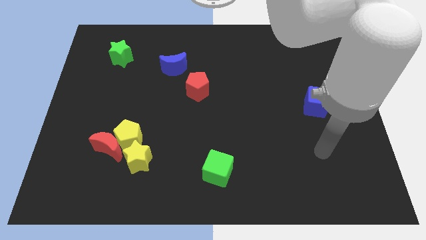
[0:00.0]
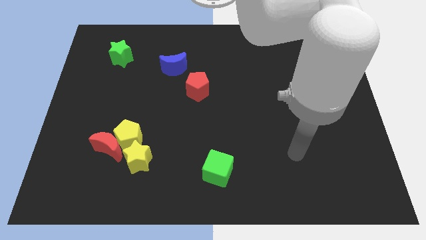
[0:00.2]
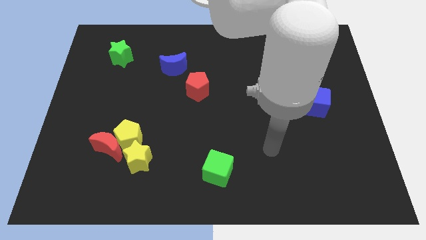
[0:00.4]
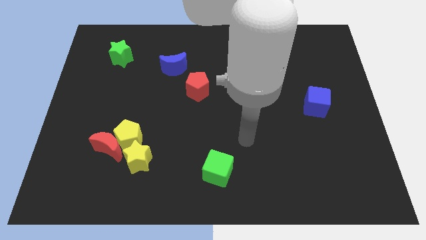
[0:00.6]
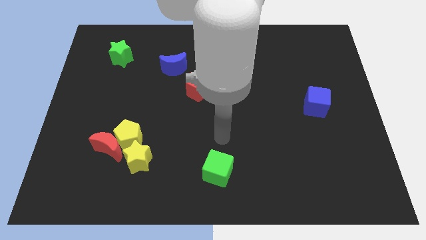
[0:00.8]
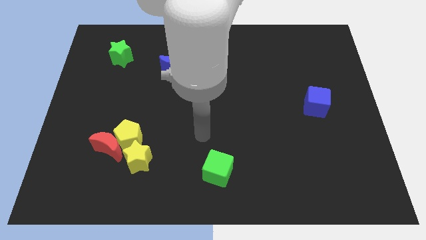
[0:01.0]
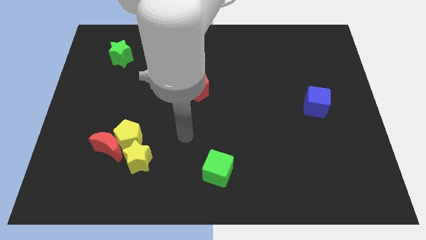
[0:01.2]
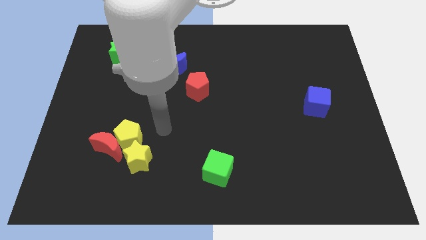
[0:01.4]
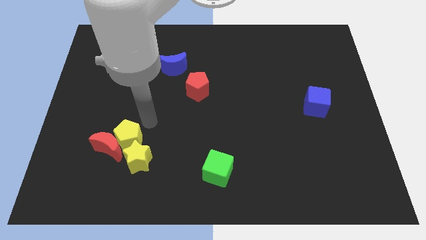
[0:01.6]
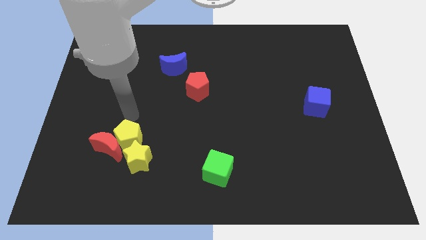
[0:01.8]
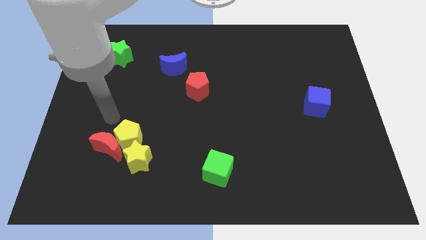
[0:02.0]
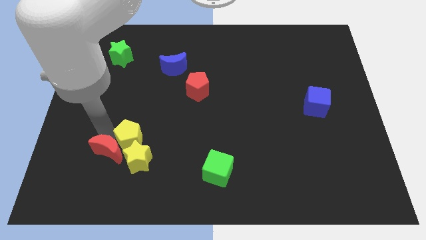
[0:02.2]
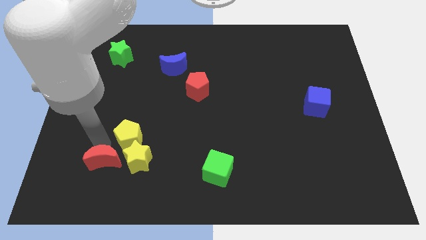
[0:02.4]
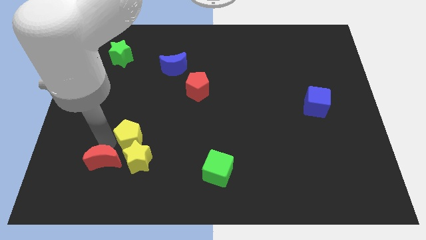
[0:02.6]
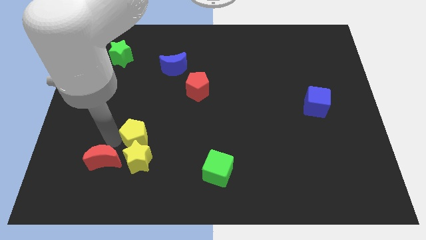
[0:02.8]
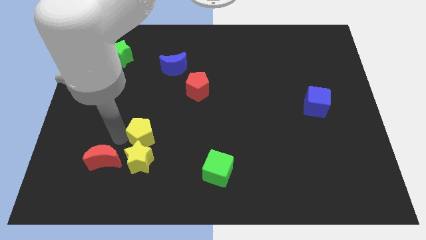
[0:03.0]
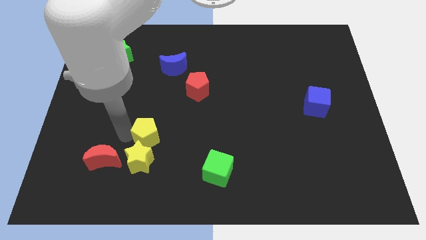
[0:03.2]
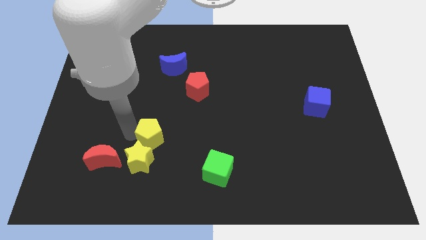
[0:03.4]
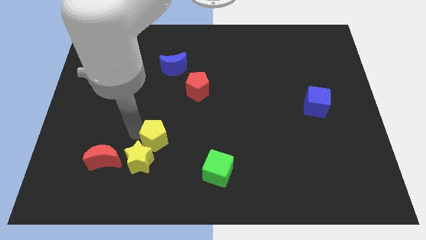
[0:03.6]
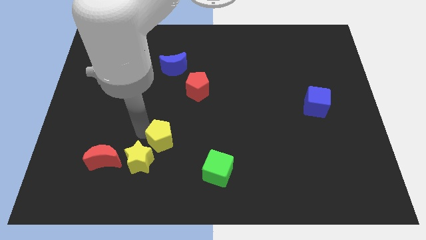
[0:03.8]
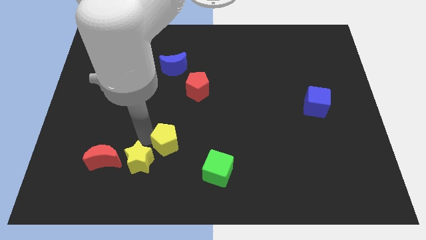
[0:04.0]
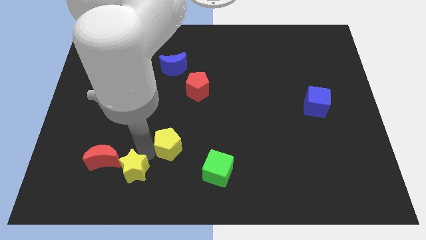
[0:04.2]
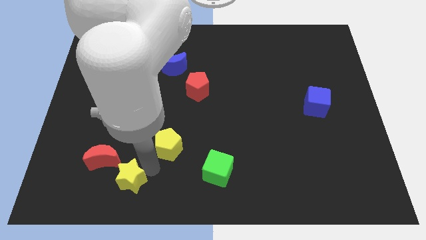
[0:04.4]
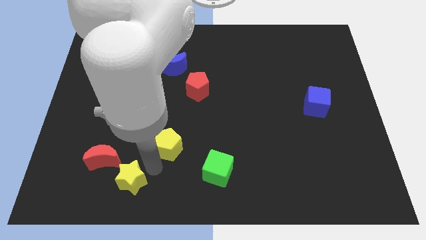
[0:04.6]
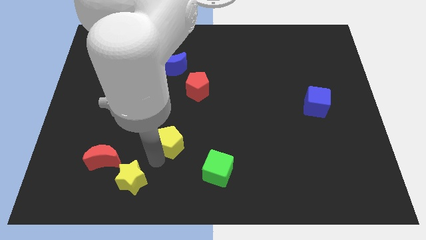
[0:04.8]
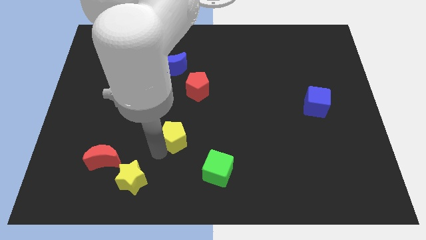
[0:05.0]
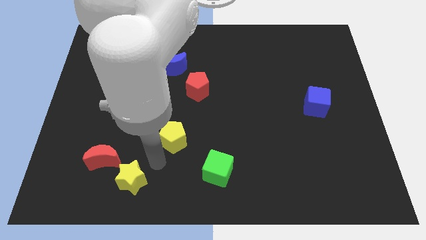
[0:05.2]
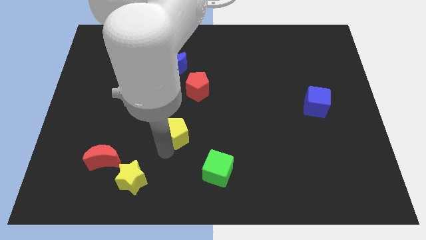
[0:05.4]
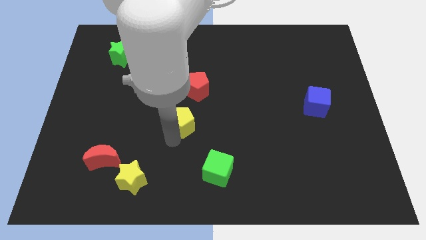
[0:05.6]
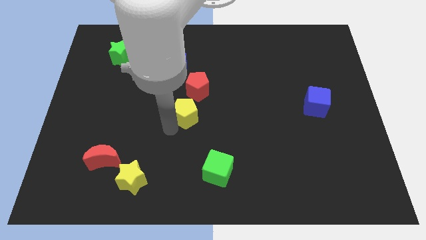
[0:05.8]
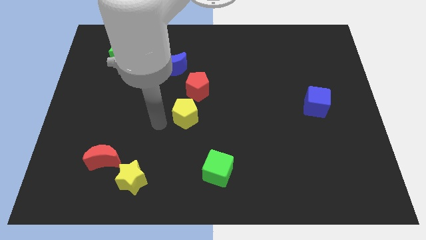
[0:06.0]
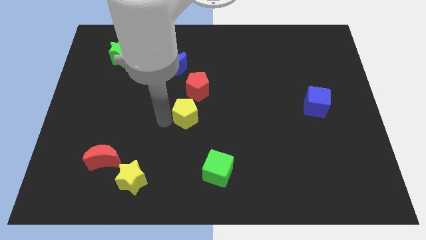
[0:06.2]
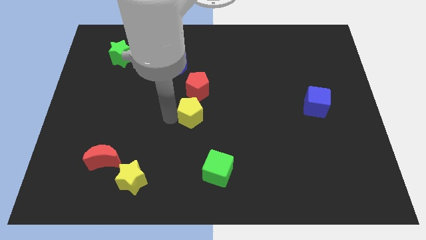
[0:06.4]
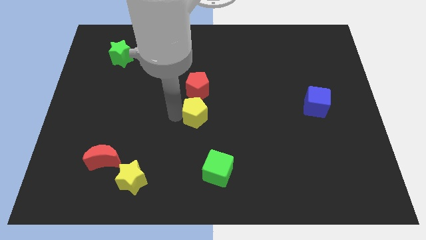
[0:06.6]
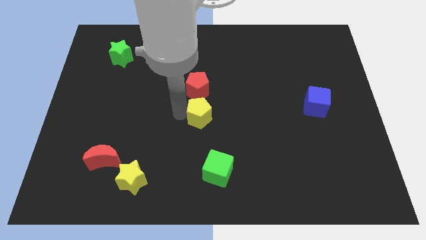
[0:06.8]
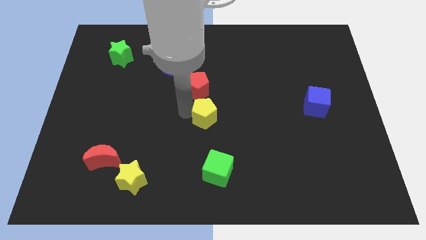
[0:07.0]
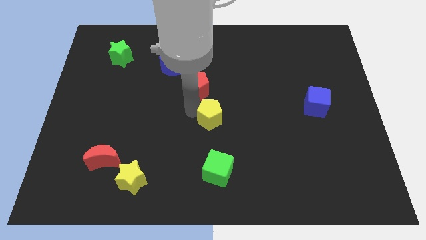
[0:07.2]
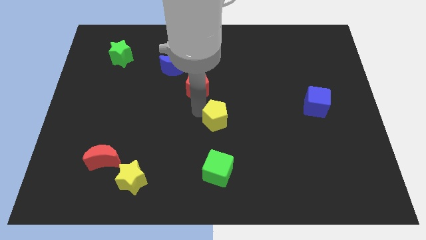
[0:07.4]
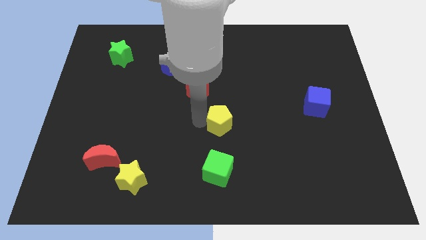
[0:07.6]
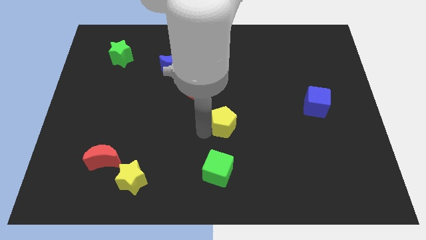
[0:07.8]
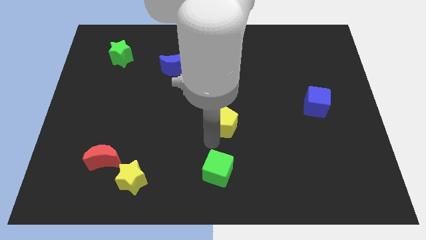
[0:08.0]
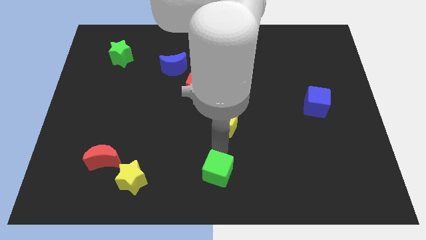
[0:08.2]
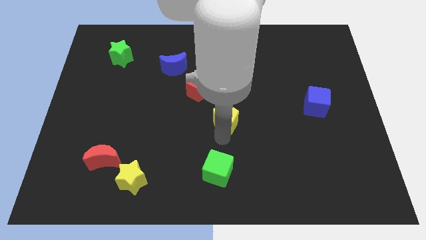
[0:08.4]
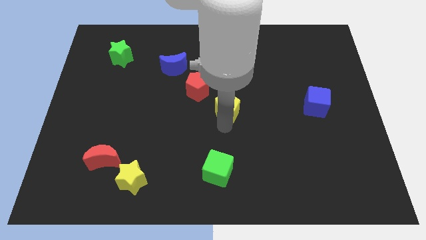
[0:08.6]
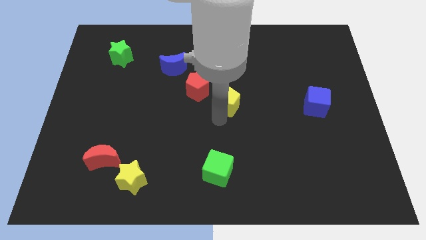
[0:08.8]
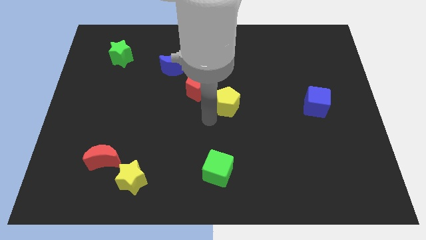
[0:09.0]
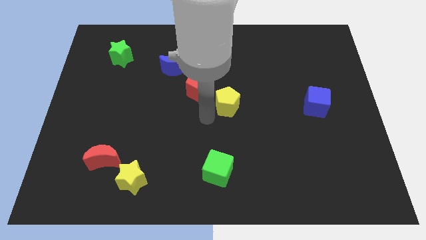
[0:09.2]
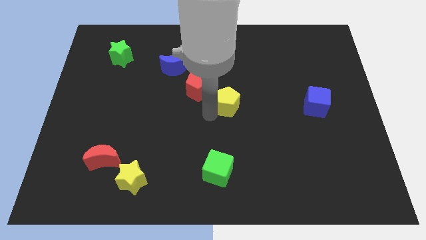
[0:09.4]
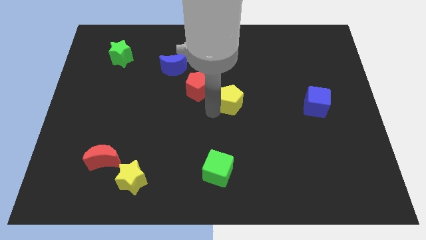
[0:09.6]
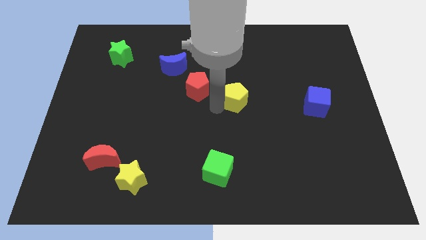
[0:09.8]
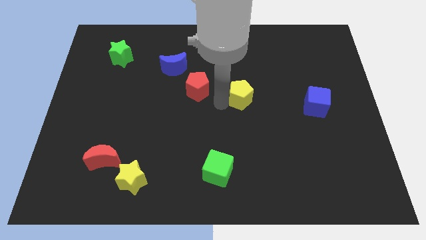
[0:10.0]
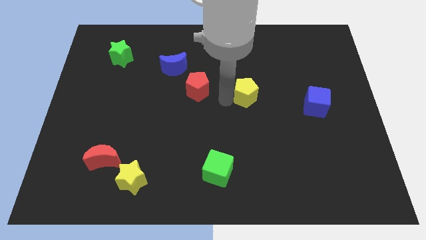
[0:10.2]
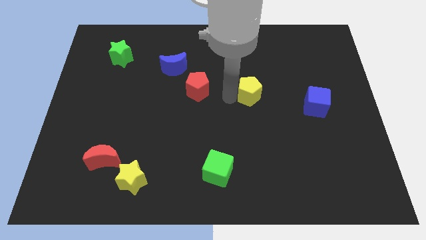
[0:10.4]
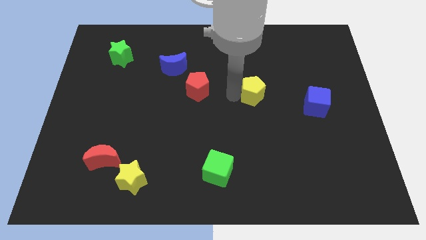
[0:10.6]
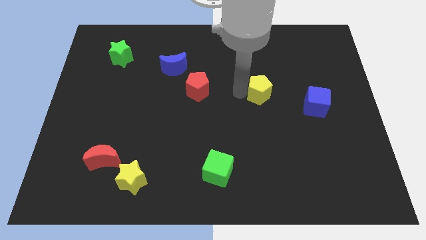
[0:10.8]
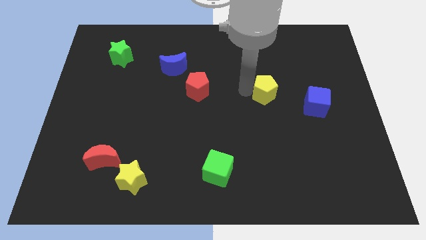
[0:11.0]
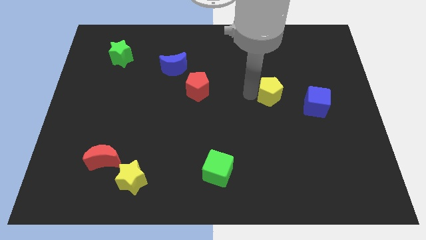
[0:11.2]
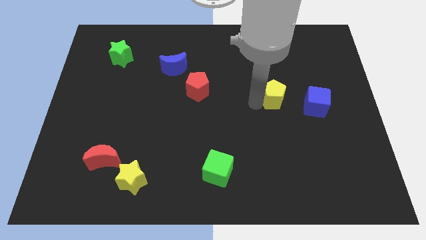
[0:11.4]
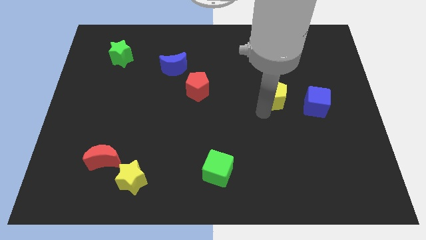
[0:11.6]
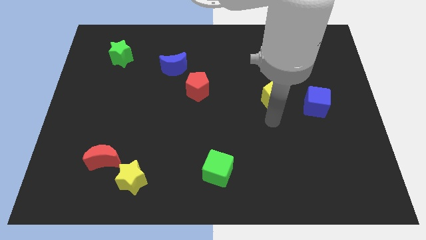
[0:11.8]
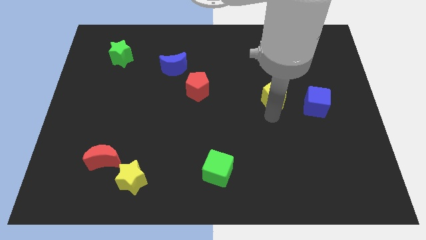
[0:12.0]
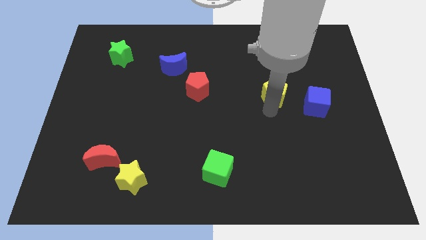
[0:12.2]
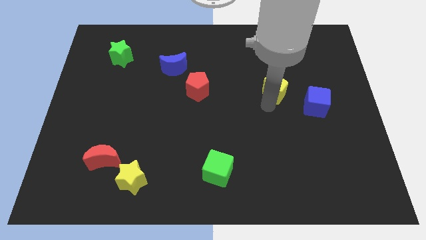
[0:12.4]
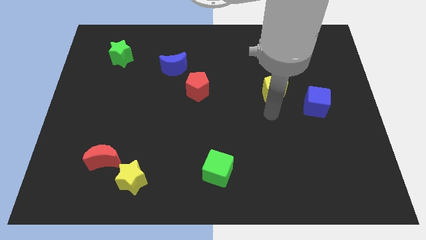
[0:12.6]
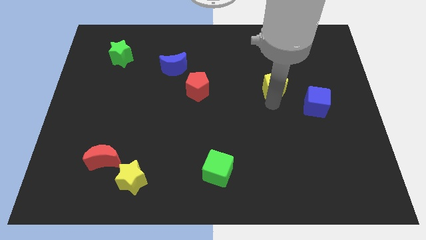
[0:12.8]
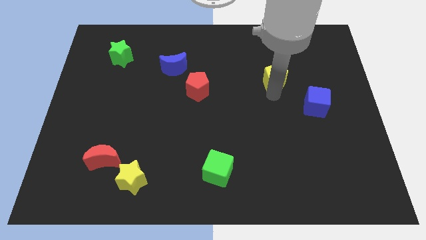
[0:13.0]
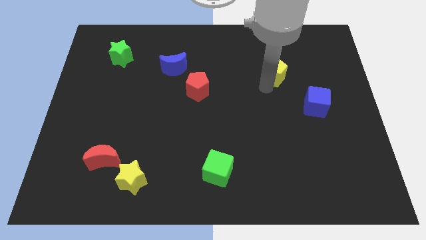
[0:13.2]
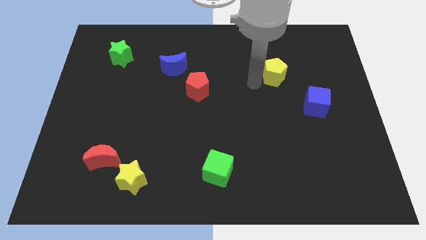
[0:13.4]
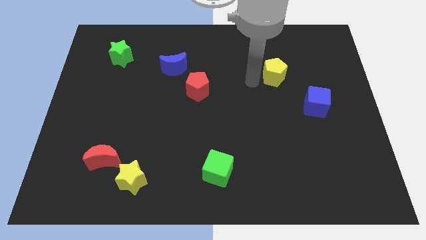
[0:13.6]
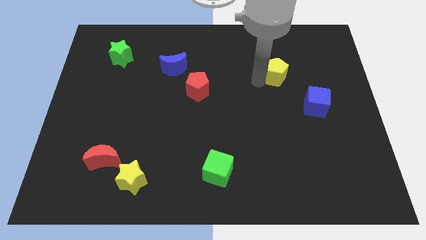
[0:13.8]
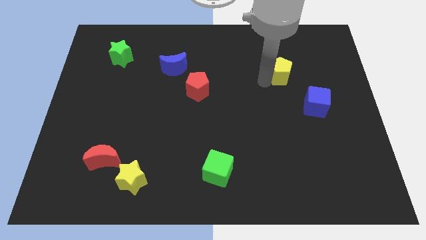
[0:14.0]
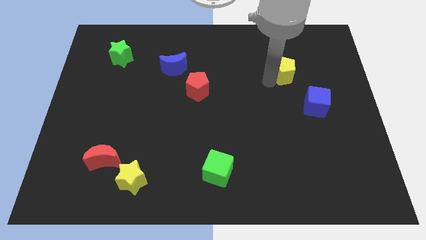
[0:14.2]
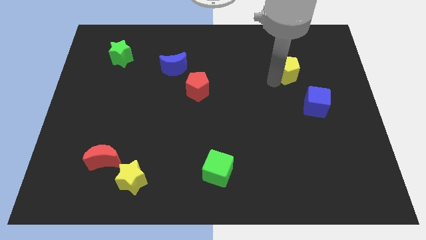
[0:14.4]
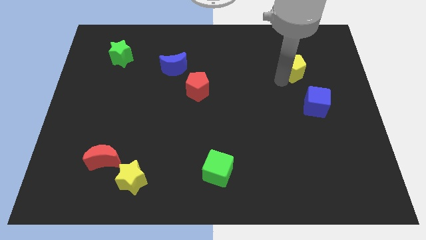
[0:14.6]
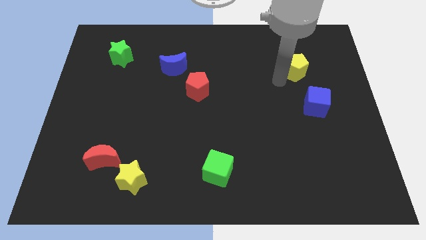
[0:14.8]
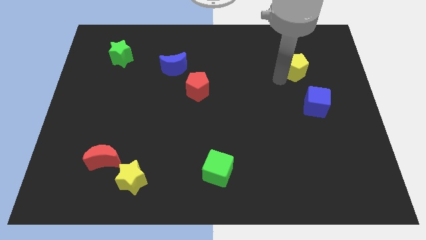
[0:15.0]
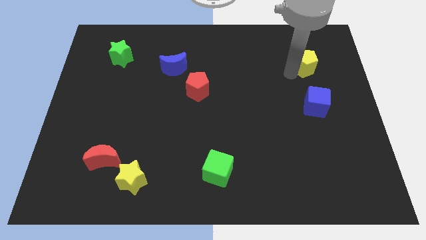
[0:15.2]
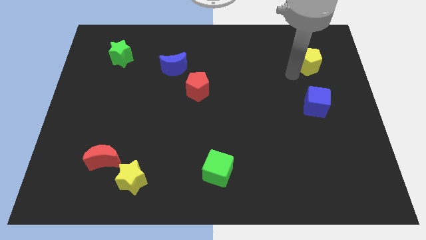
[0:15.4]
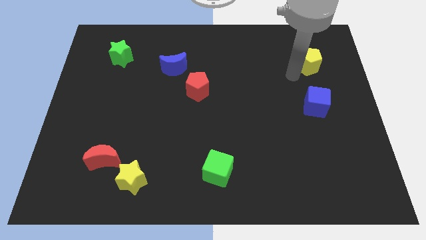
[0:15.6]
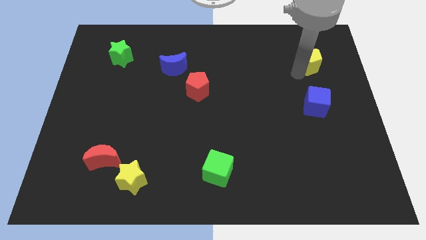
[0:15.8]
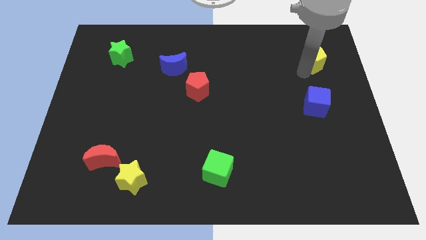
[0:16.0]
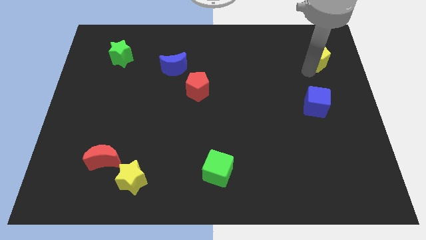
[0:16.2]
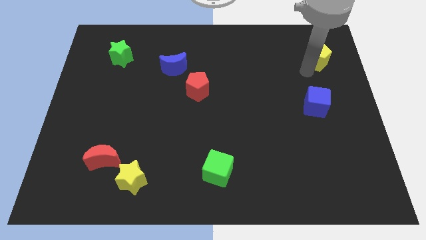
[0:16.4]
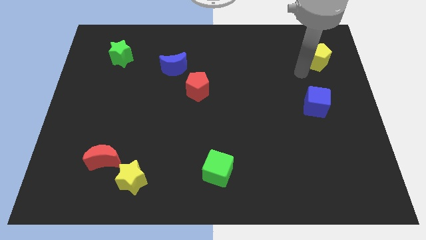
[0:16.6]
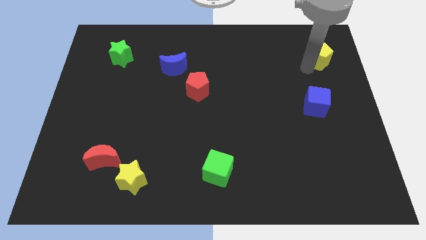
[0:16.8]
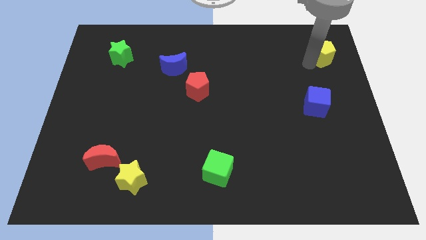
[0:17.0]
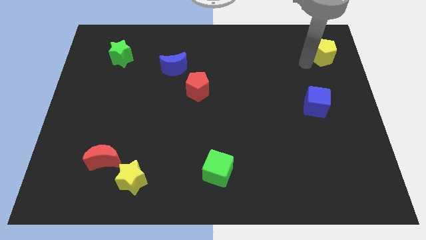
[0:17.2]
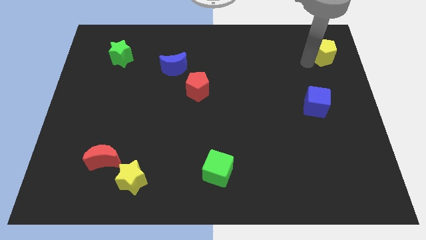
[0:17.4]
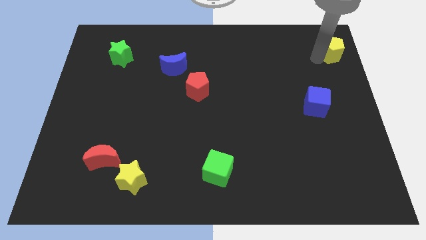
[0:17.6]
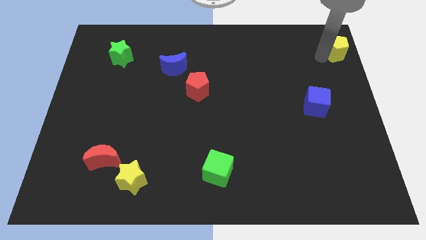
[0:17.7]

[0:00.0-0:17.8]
move the yellow pentagon to the top right of the board
